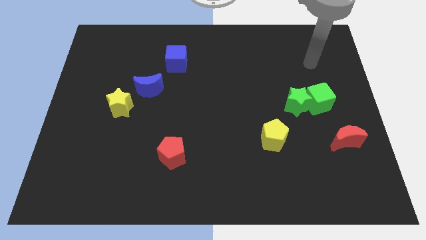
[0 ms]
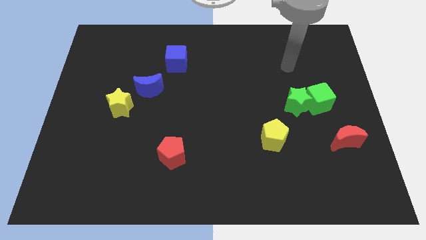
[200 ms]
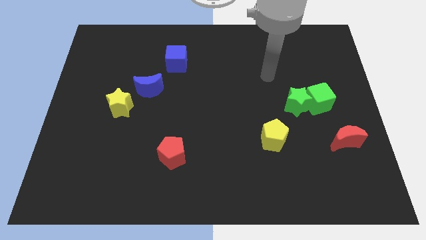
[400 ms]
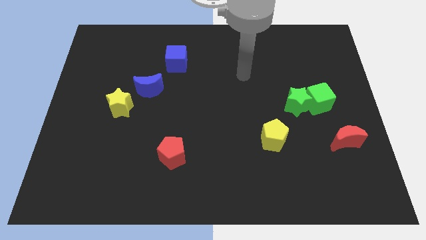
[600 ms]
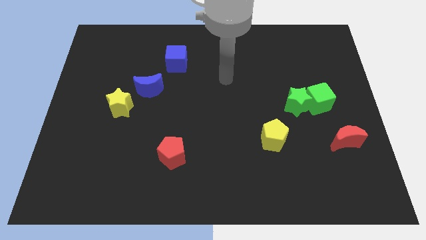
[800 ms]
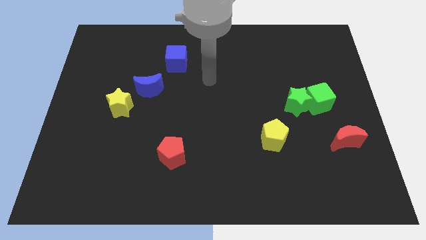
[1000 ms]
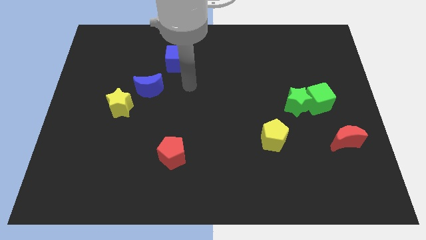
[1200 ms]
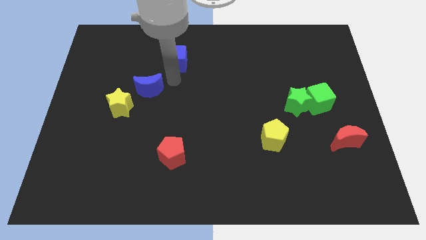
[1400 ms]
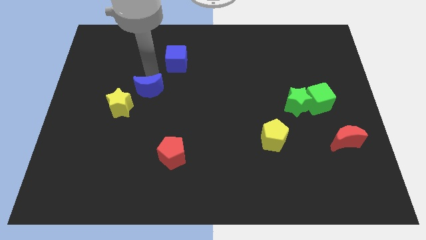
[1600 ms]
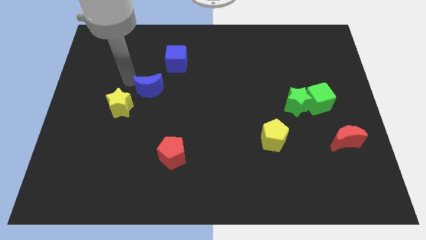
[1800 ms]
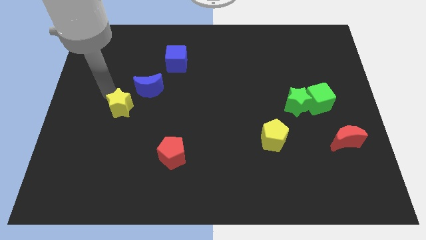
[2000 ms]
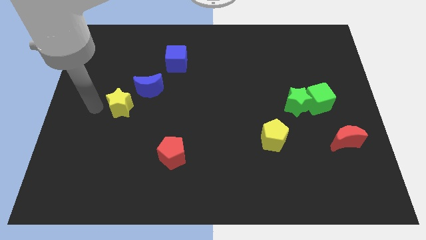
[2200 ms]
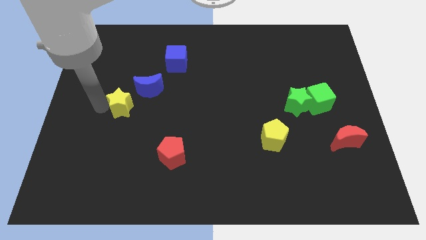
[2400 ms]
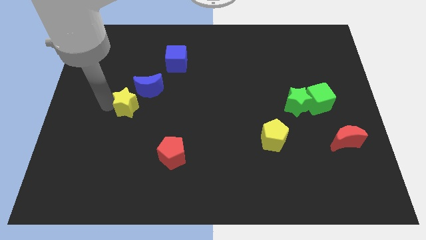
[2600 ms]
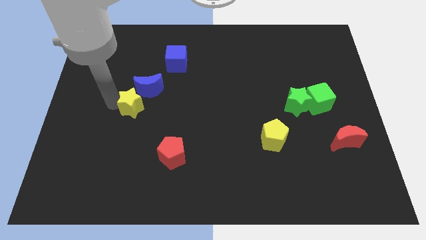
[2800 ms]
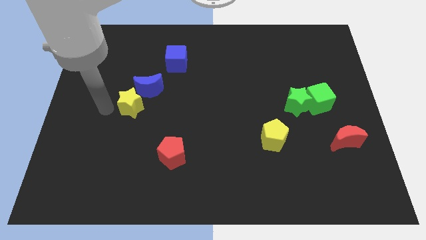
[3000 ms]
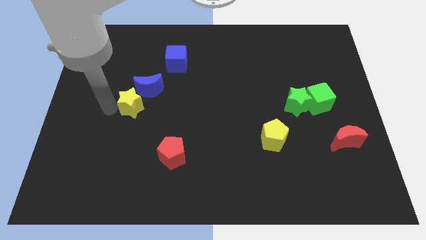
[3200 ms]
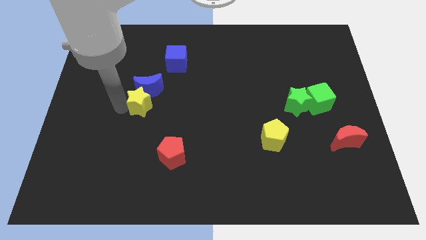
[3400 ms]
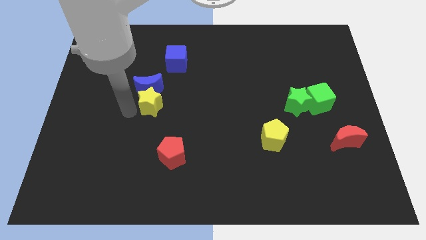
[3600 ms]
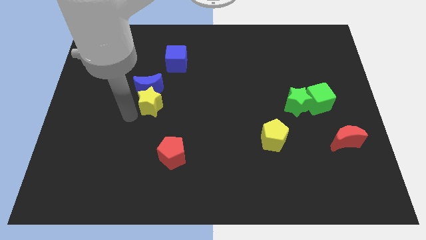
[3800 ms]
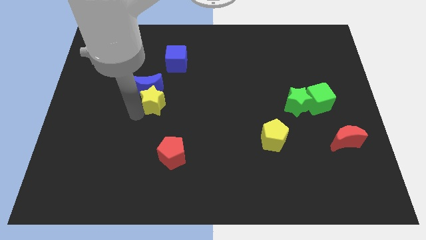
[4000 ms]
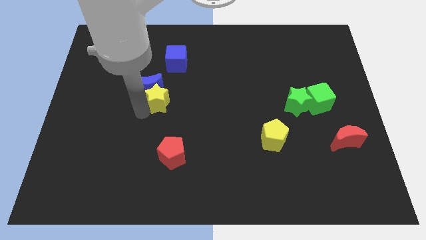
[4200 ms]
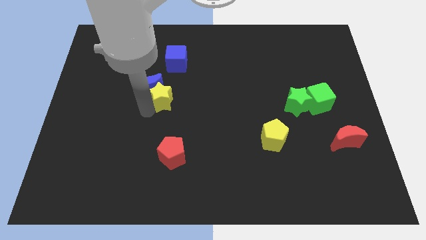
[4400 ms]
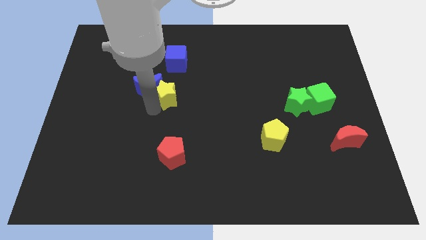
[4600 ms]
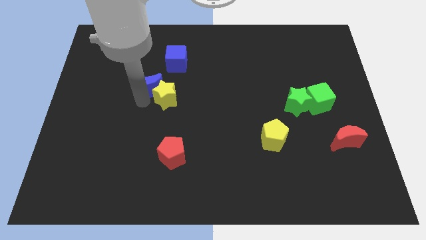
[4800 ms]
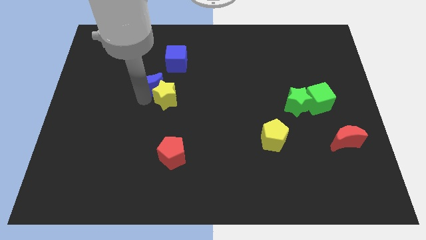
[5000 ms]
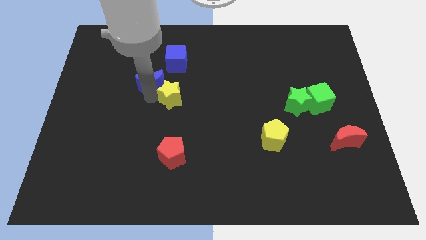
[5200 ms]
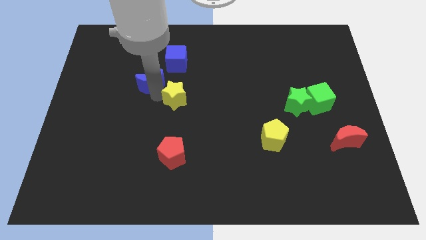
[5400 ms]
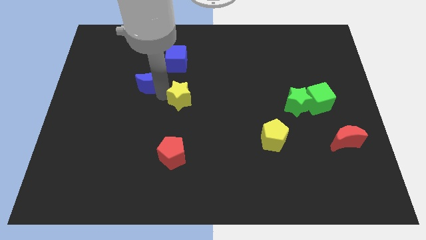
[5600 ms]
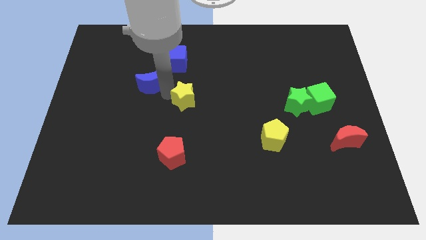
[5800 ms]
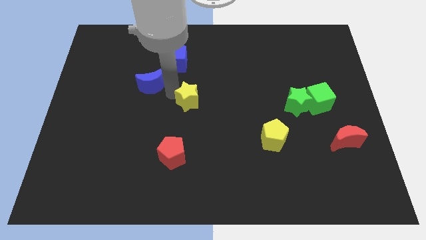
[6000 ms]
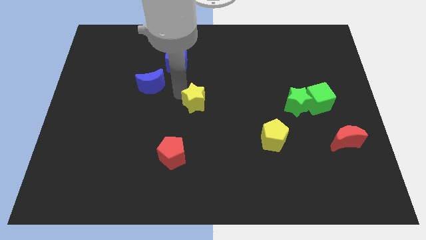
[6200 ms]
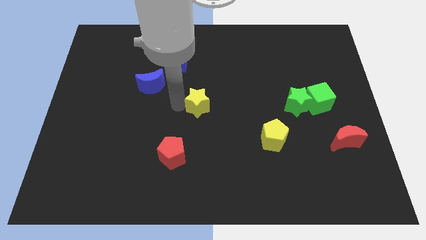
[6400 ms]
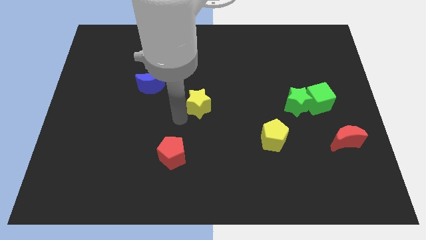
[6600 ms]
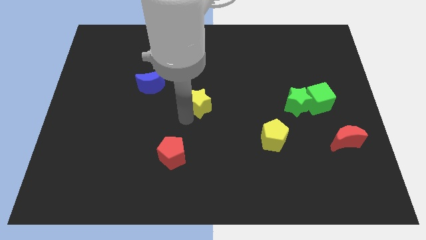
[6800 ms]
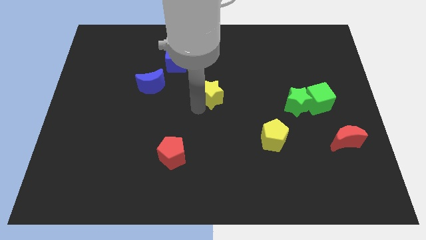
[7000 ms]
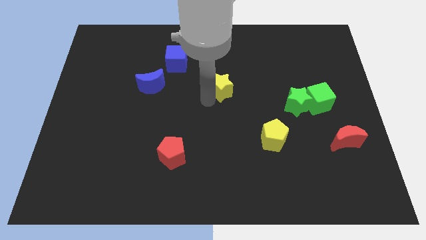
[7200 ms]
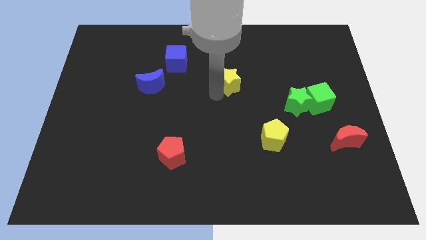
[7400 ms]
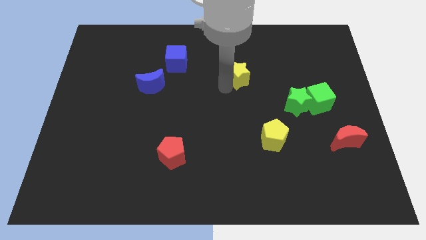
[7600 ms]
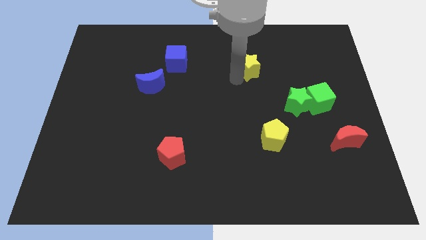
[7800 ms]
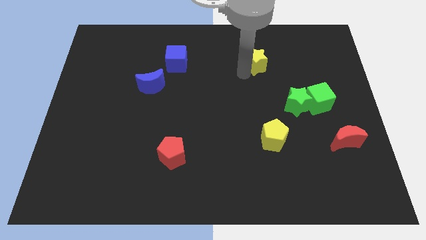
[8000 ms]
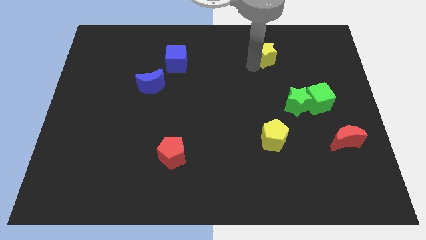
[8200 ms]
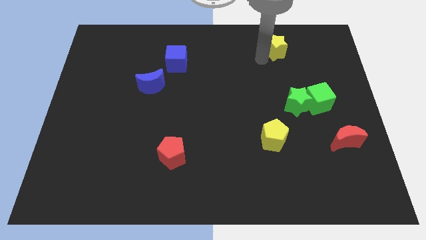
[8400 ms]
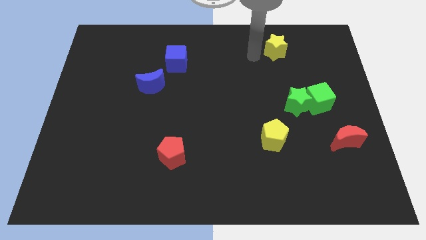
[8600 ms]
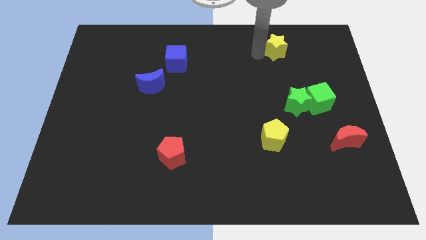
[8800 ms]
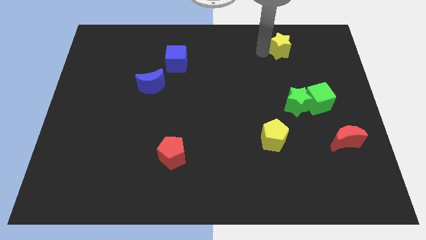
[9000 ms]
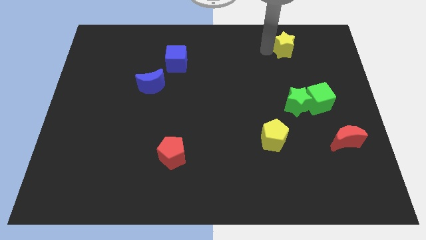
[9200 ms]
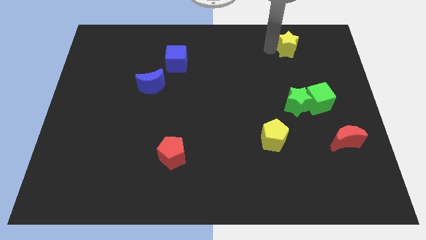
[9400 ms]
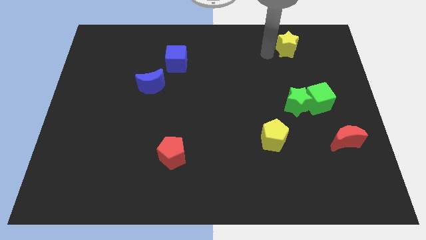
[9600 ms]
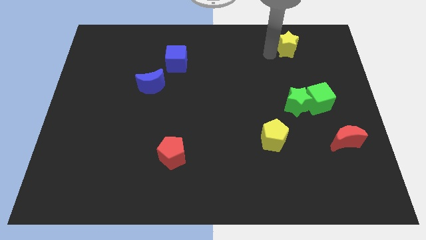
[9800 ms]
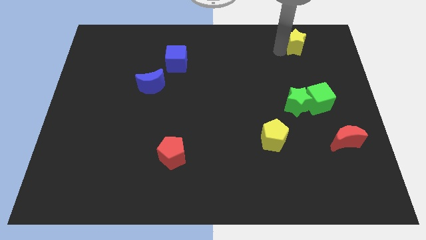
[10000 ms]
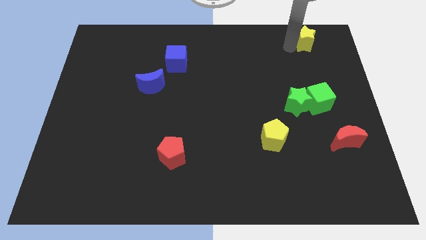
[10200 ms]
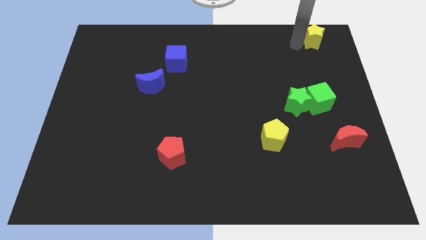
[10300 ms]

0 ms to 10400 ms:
put the yellow star to the top right
